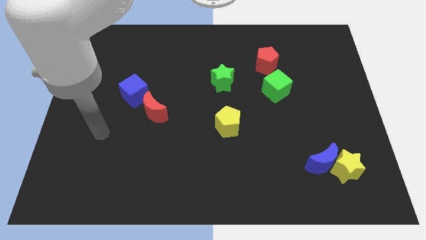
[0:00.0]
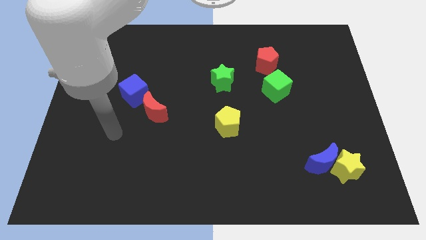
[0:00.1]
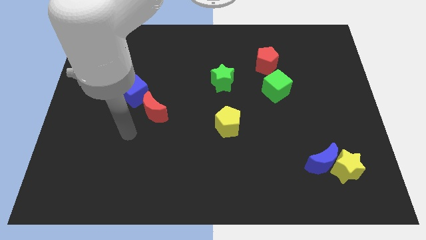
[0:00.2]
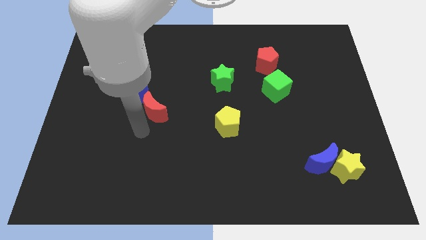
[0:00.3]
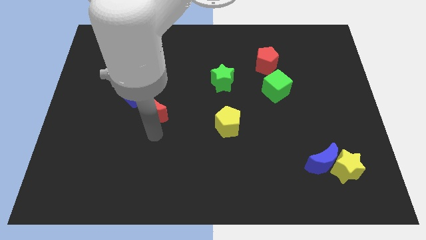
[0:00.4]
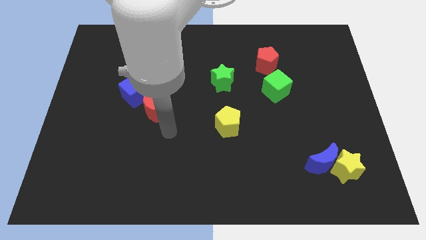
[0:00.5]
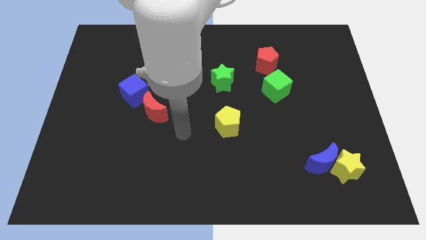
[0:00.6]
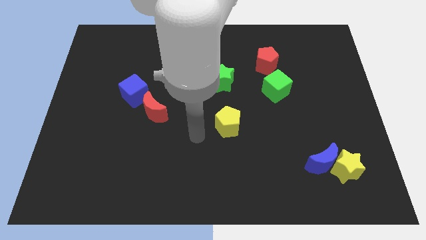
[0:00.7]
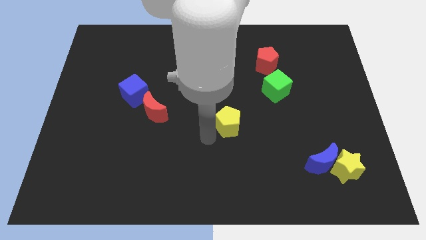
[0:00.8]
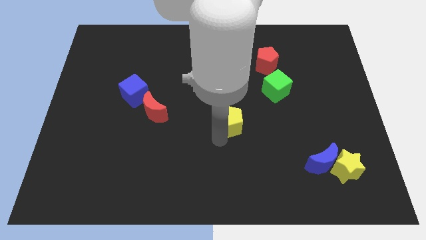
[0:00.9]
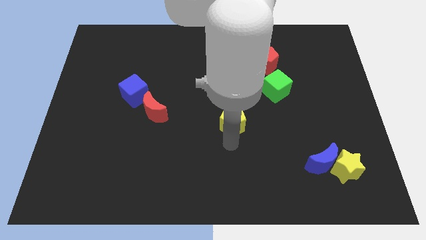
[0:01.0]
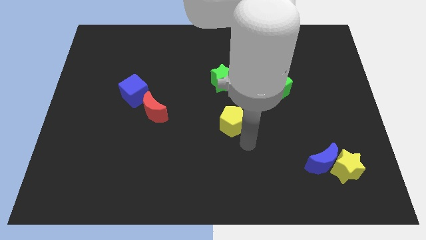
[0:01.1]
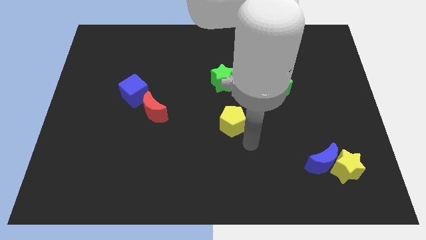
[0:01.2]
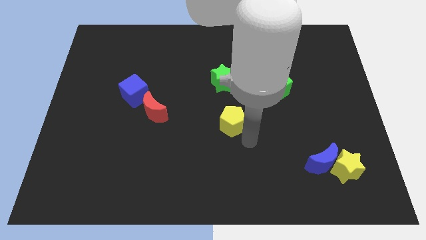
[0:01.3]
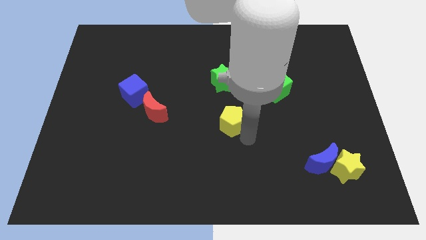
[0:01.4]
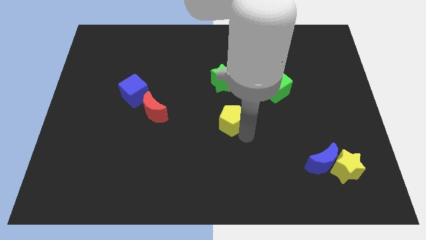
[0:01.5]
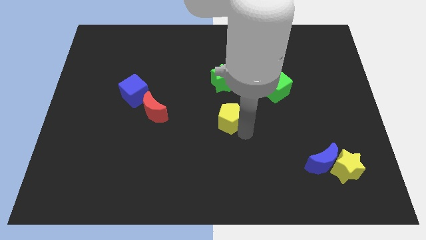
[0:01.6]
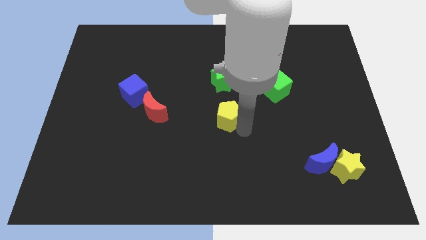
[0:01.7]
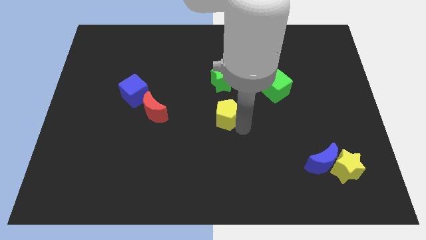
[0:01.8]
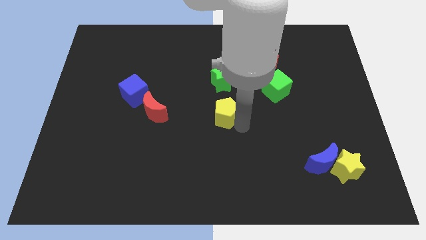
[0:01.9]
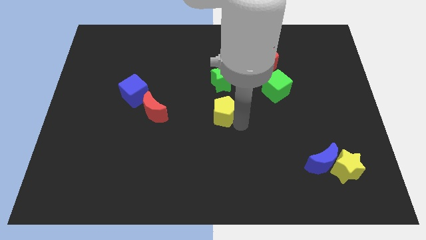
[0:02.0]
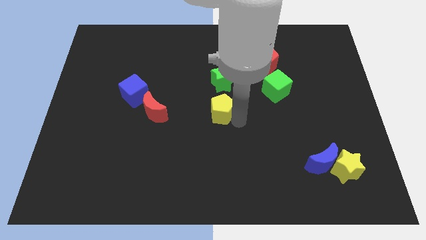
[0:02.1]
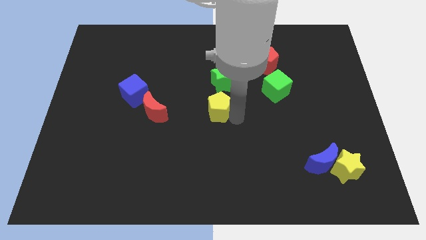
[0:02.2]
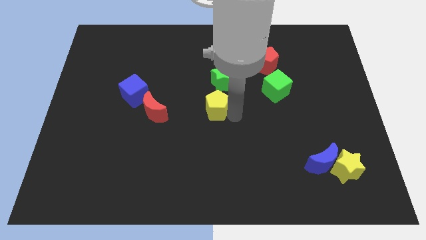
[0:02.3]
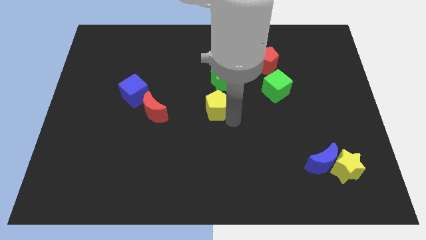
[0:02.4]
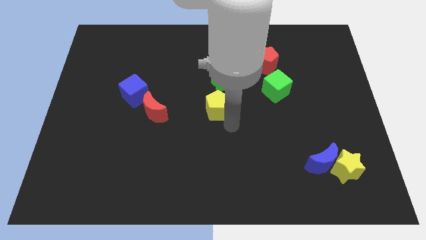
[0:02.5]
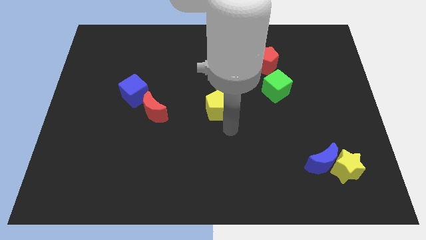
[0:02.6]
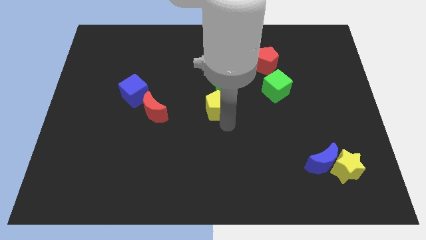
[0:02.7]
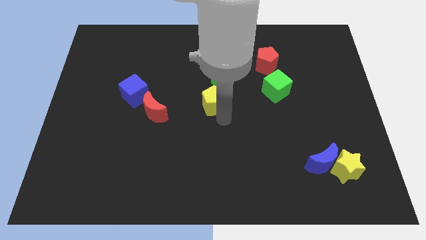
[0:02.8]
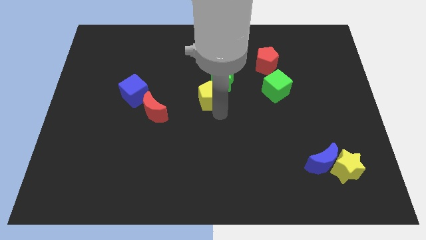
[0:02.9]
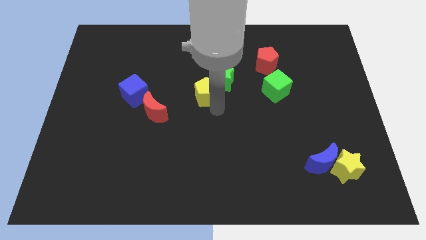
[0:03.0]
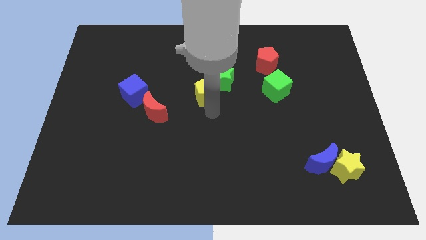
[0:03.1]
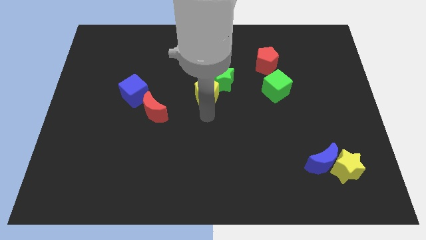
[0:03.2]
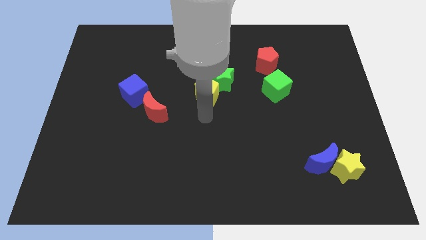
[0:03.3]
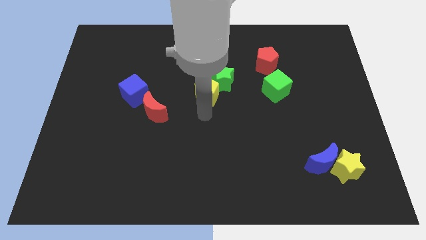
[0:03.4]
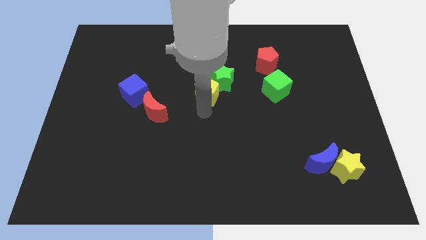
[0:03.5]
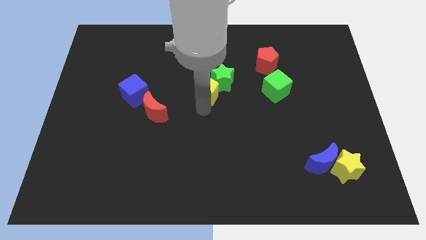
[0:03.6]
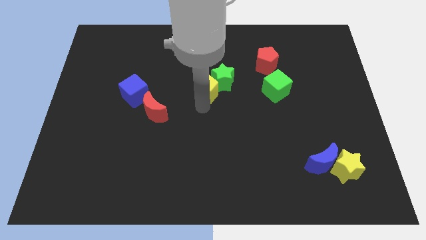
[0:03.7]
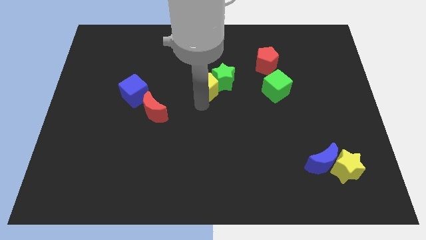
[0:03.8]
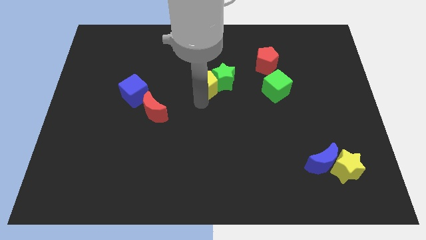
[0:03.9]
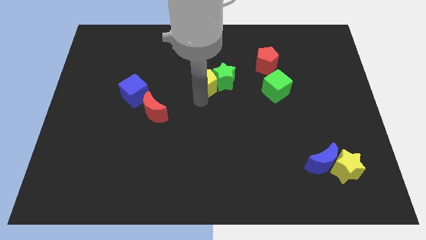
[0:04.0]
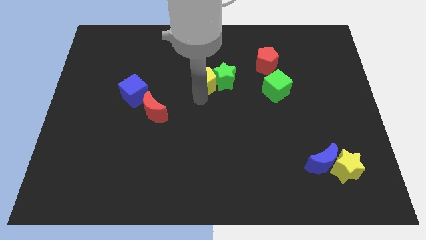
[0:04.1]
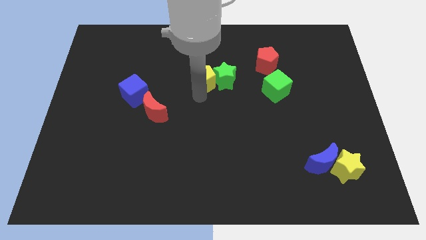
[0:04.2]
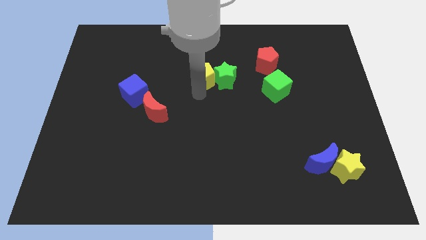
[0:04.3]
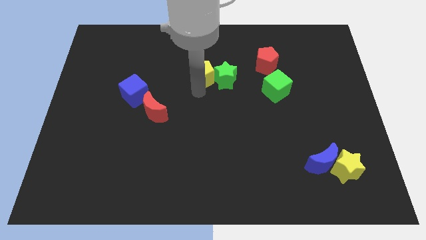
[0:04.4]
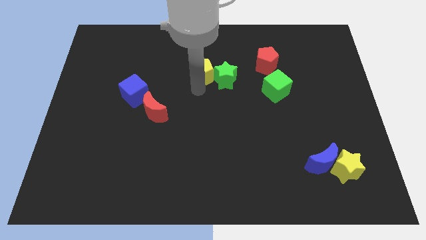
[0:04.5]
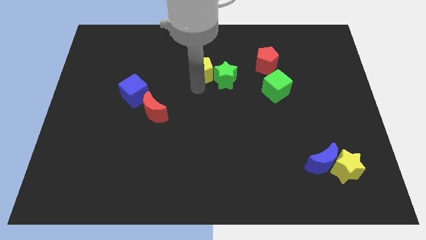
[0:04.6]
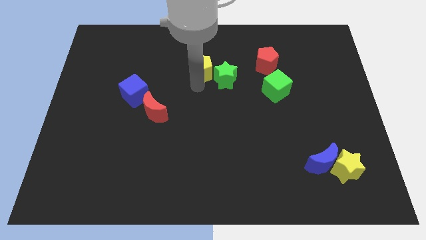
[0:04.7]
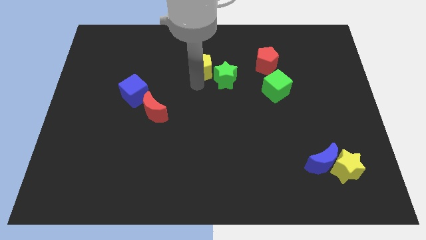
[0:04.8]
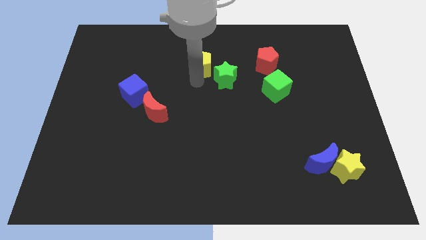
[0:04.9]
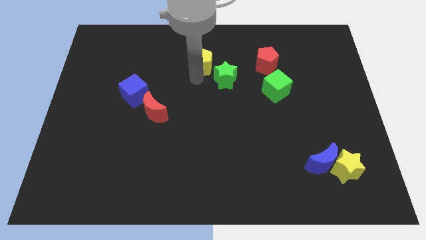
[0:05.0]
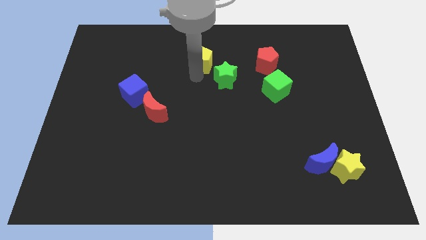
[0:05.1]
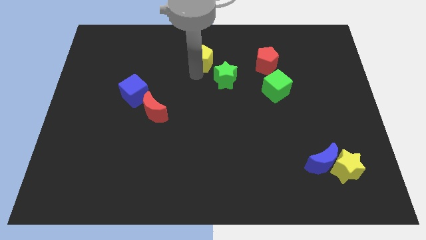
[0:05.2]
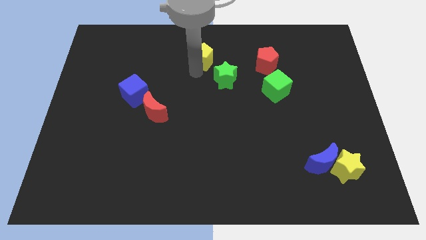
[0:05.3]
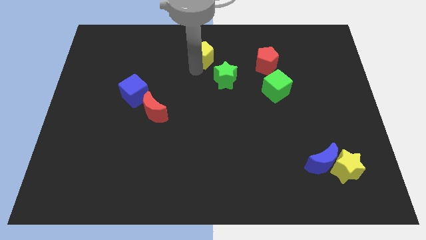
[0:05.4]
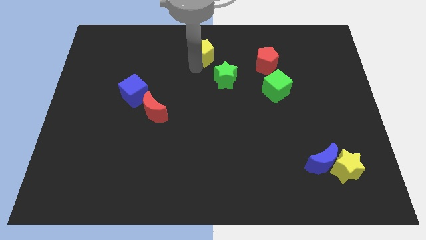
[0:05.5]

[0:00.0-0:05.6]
push the yellow pentagon to the top side

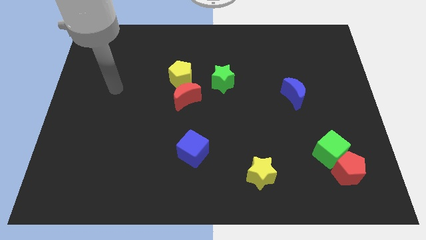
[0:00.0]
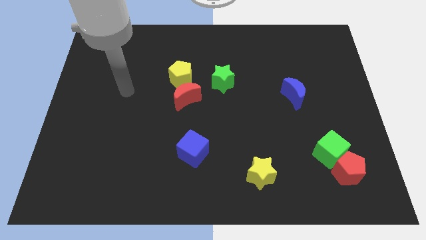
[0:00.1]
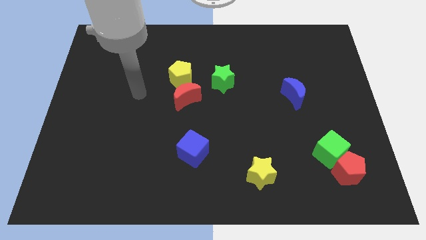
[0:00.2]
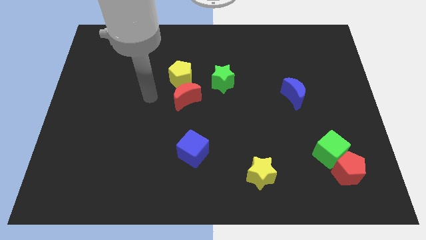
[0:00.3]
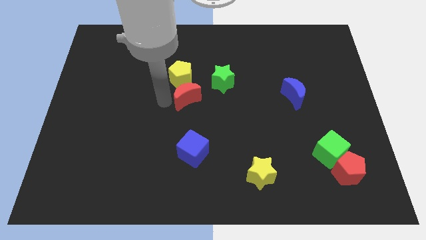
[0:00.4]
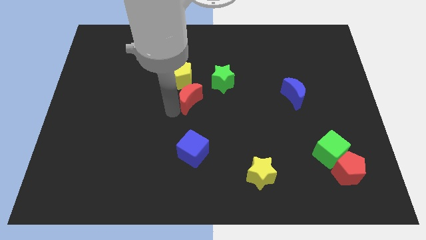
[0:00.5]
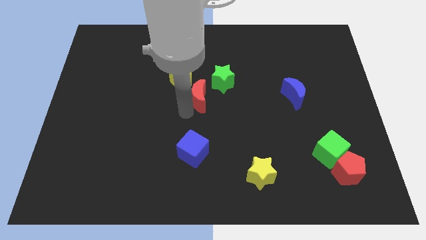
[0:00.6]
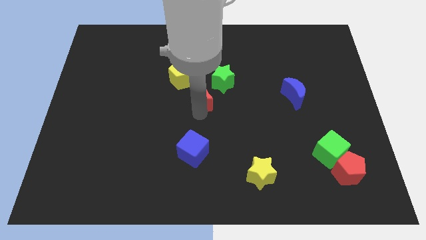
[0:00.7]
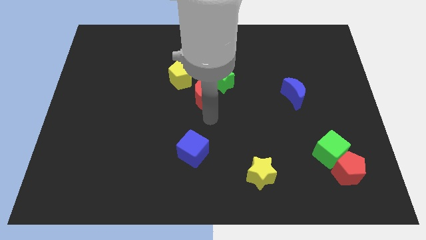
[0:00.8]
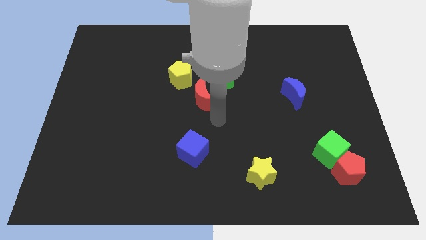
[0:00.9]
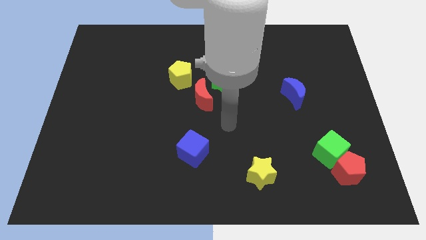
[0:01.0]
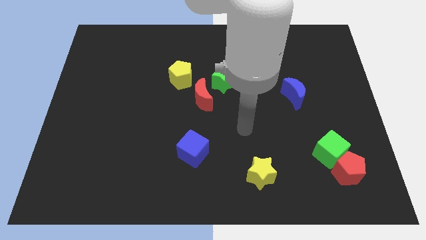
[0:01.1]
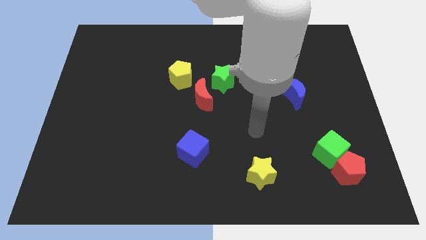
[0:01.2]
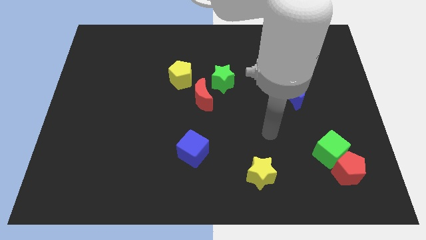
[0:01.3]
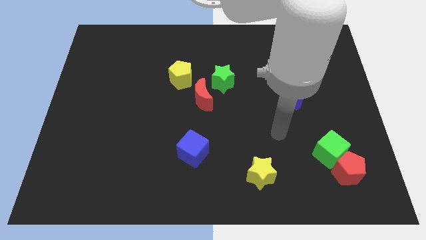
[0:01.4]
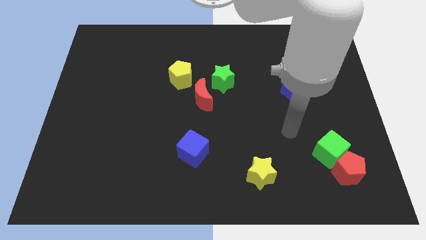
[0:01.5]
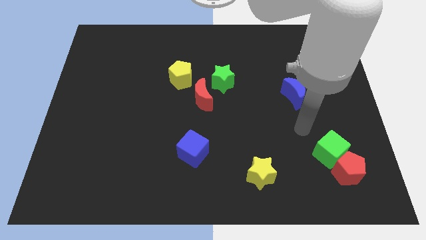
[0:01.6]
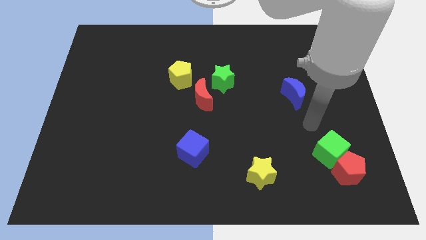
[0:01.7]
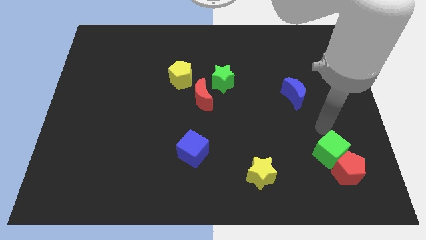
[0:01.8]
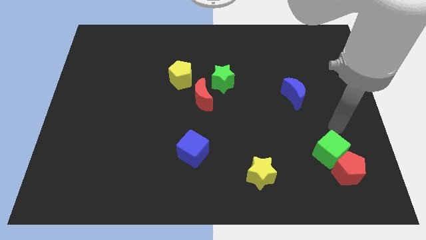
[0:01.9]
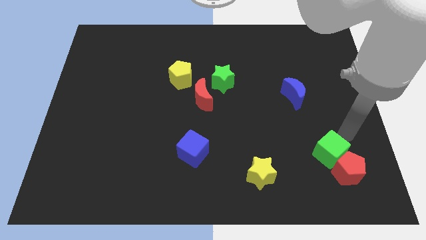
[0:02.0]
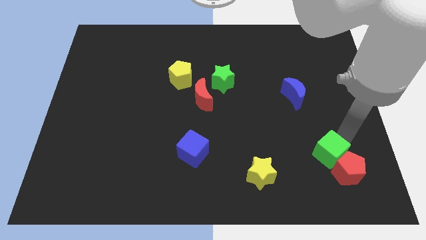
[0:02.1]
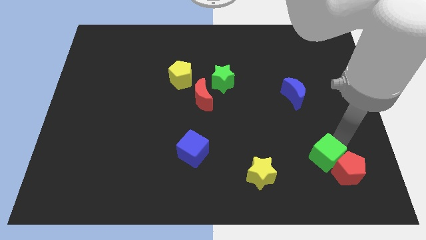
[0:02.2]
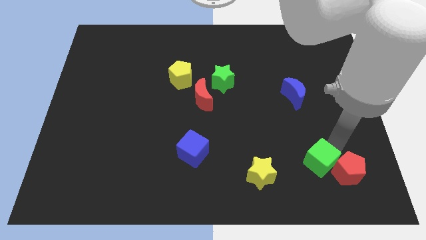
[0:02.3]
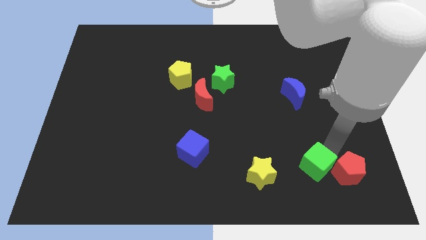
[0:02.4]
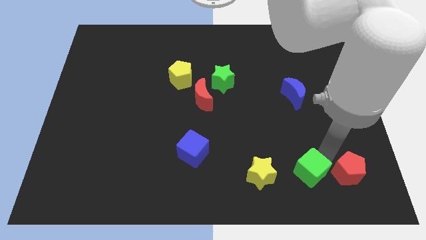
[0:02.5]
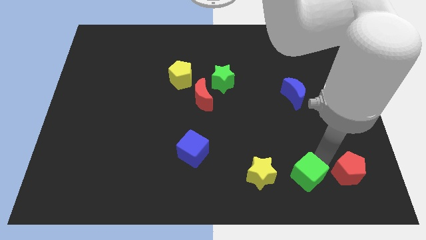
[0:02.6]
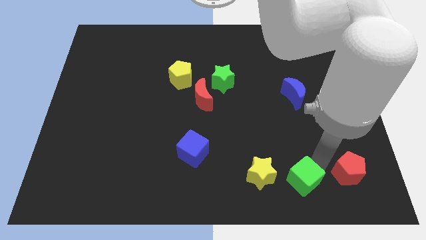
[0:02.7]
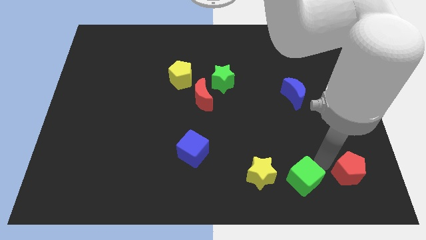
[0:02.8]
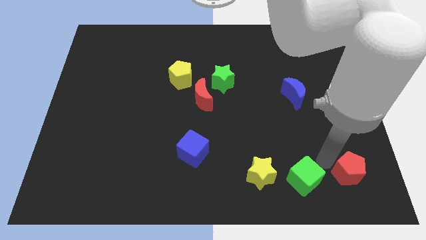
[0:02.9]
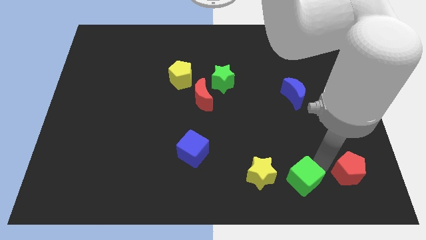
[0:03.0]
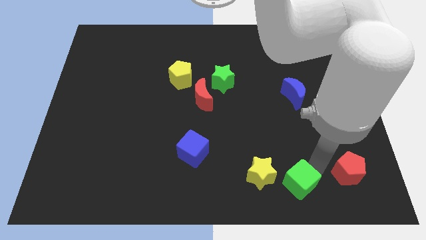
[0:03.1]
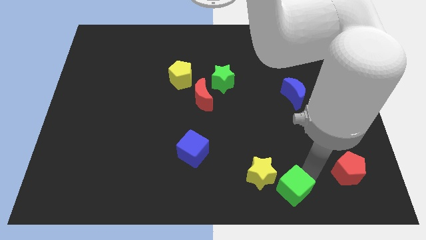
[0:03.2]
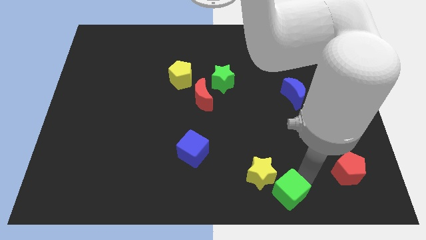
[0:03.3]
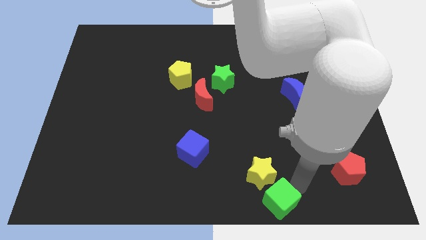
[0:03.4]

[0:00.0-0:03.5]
move the green cube to the bottom side
